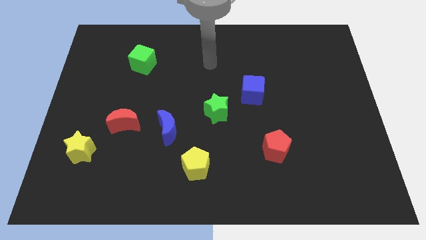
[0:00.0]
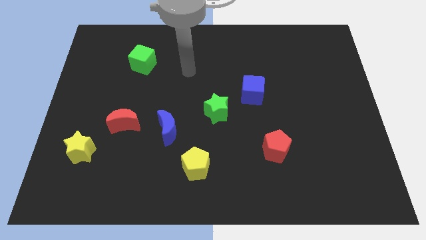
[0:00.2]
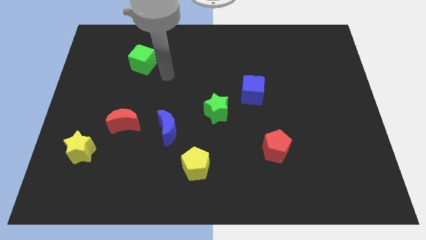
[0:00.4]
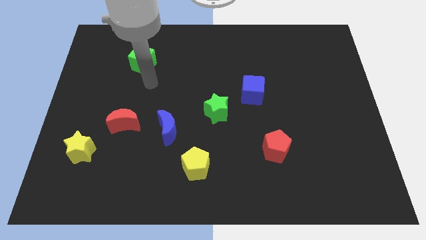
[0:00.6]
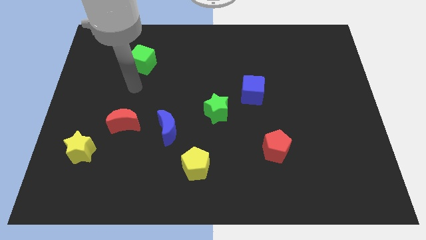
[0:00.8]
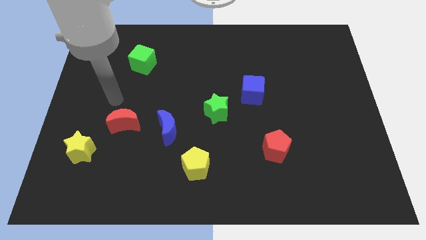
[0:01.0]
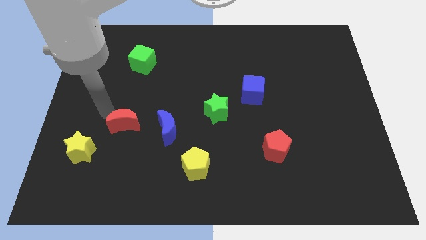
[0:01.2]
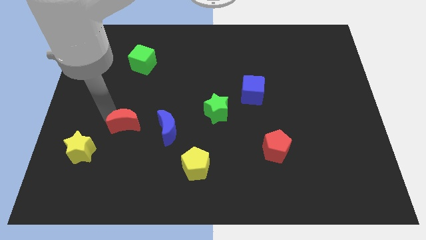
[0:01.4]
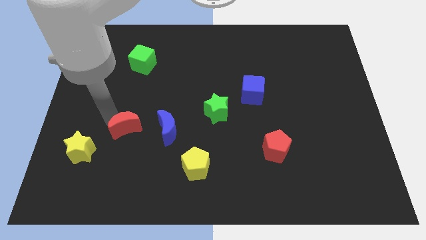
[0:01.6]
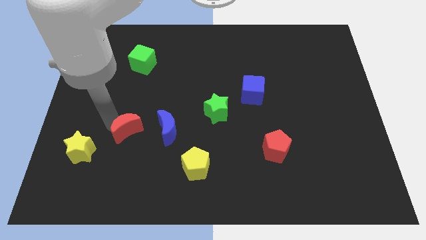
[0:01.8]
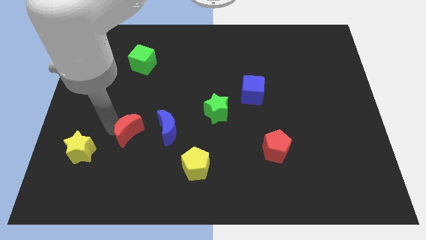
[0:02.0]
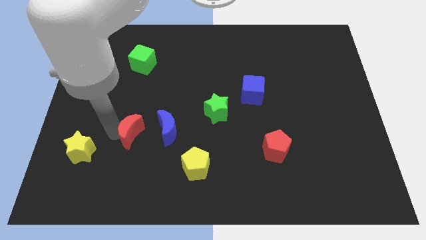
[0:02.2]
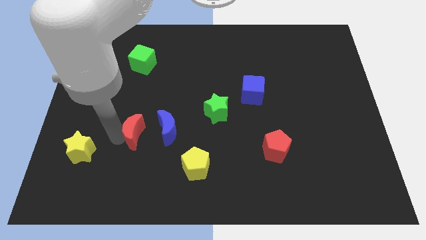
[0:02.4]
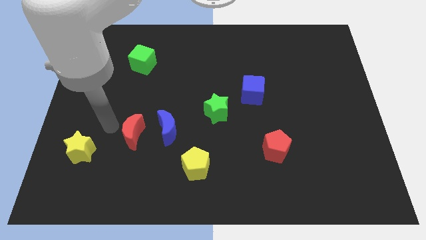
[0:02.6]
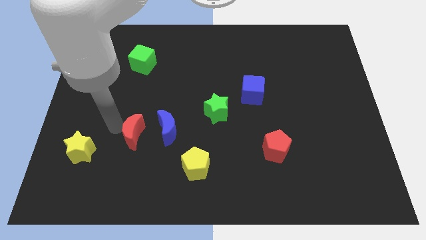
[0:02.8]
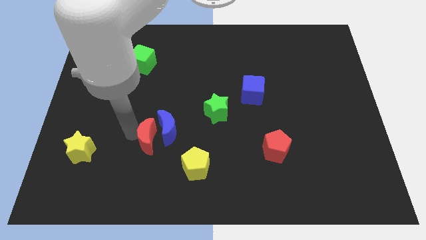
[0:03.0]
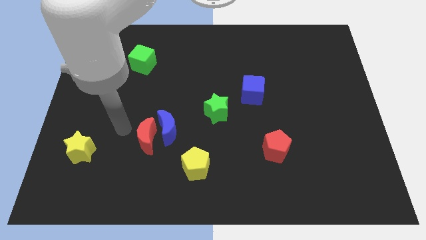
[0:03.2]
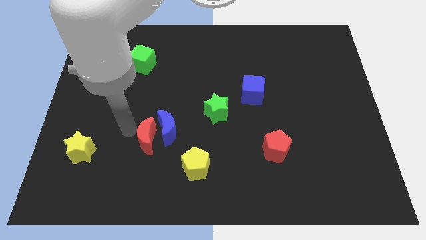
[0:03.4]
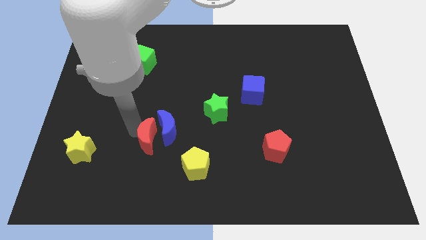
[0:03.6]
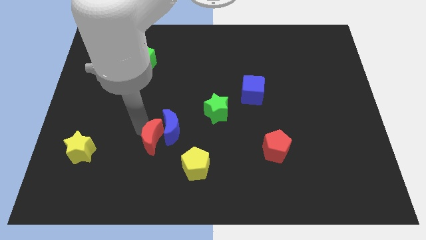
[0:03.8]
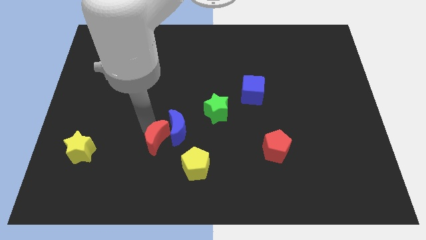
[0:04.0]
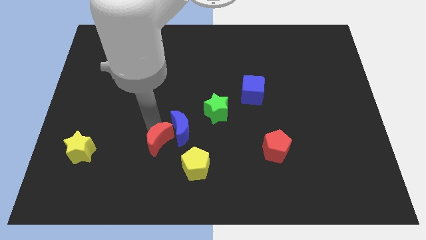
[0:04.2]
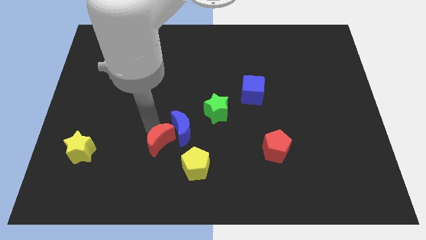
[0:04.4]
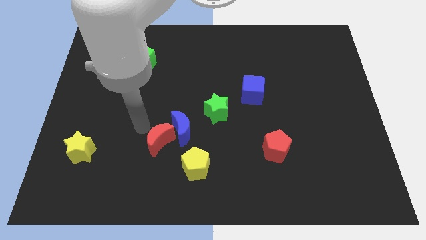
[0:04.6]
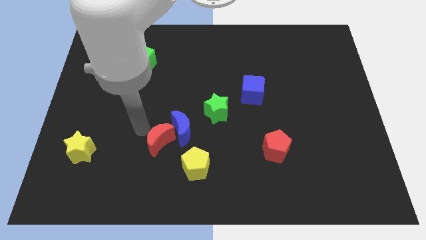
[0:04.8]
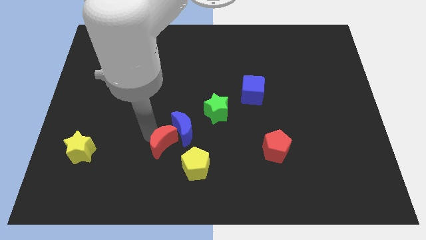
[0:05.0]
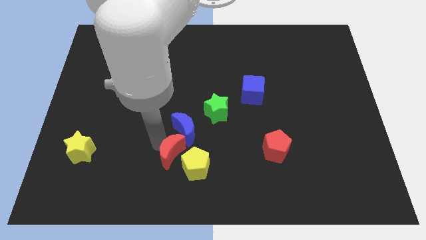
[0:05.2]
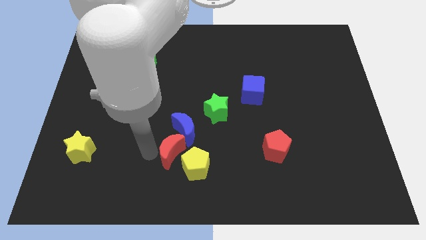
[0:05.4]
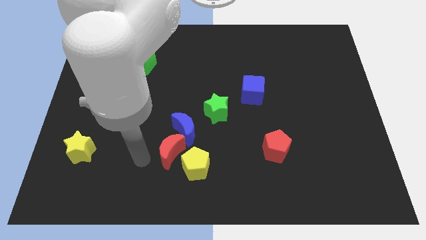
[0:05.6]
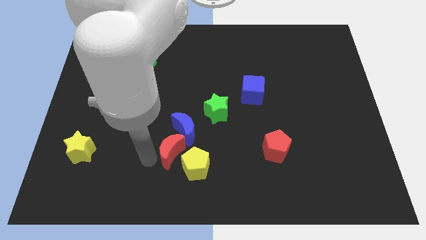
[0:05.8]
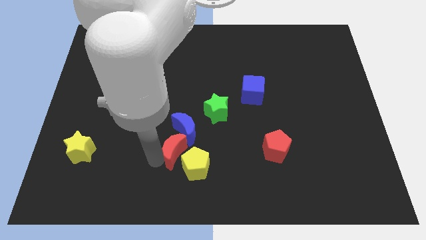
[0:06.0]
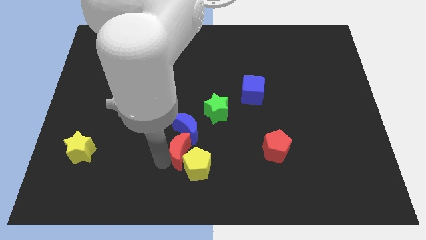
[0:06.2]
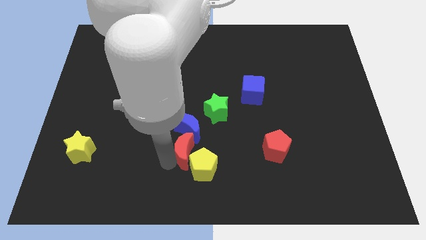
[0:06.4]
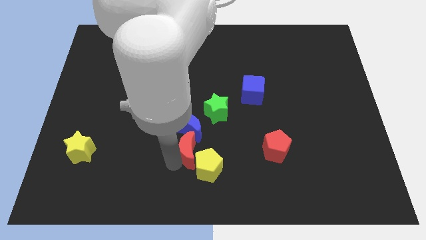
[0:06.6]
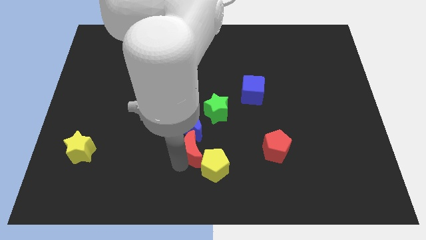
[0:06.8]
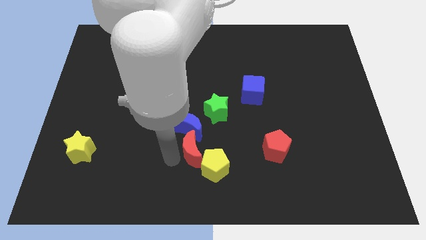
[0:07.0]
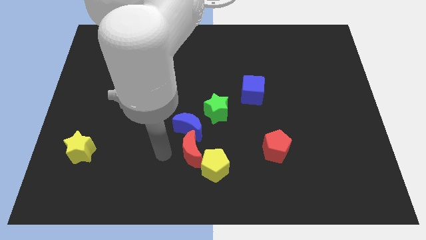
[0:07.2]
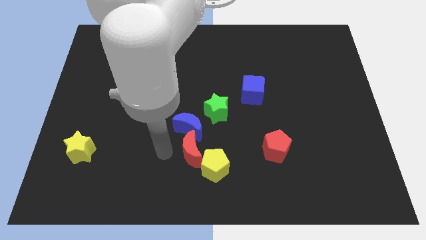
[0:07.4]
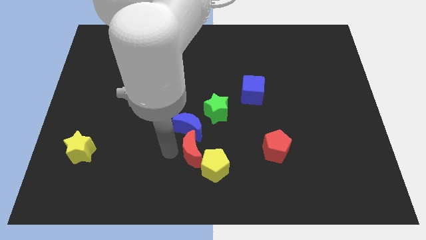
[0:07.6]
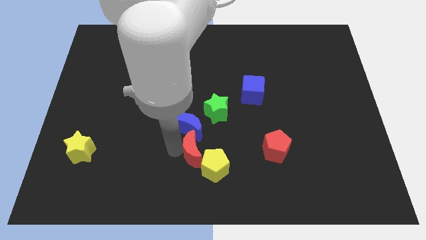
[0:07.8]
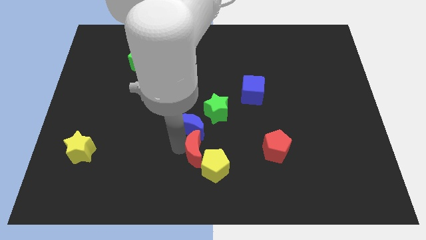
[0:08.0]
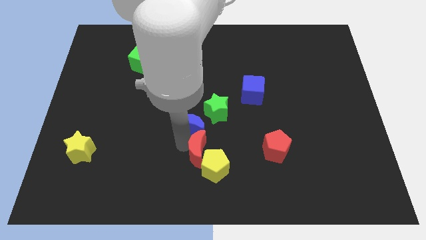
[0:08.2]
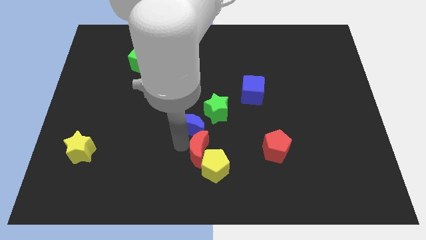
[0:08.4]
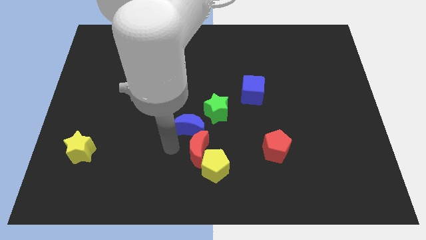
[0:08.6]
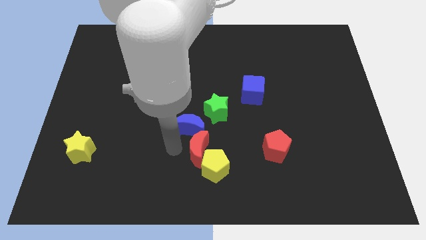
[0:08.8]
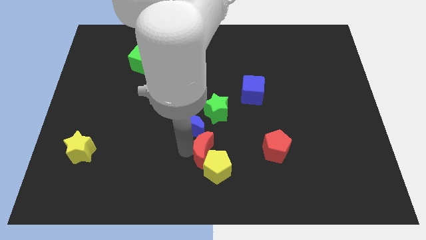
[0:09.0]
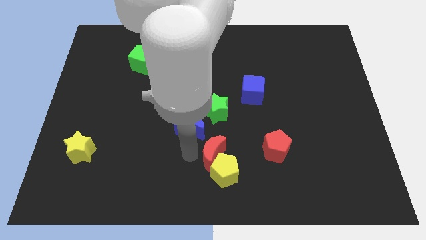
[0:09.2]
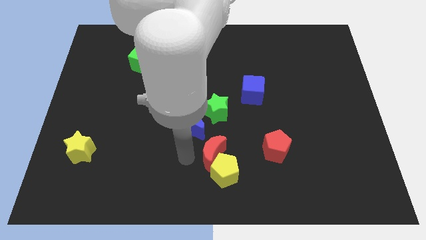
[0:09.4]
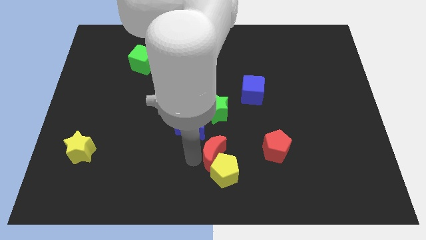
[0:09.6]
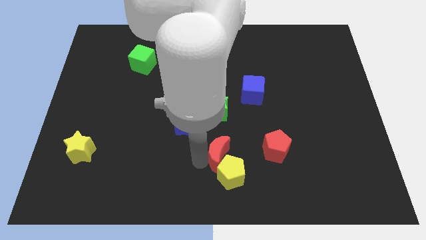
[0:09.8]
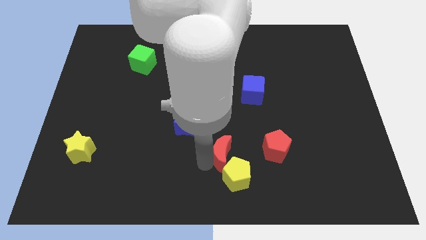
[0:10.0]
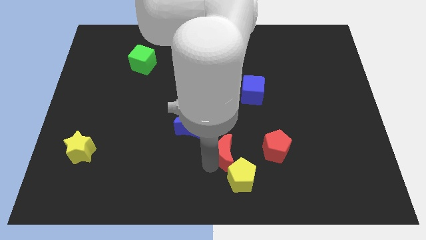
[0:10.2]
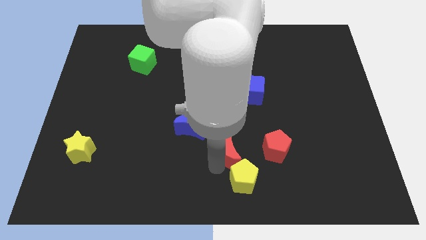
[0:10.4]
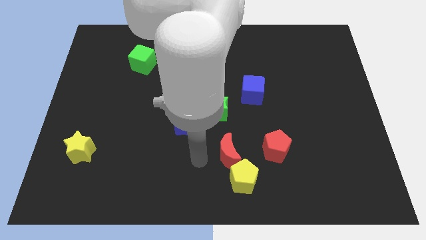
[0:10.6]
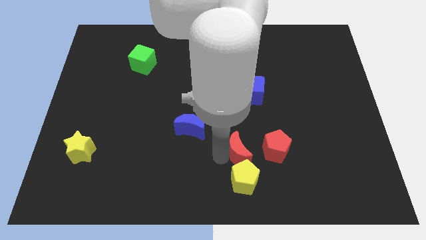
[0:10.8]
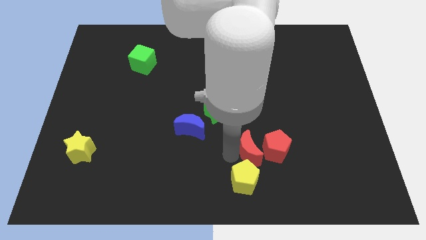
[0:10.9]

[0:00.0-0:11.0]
slide the red moon to the red pentagon

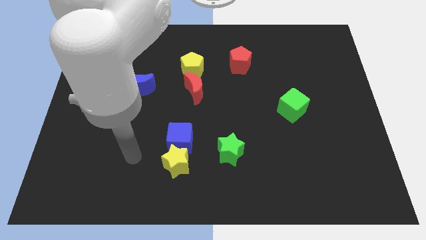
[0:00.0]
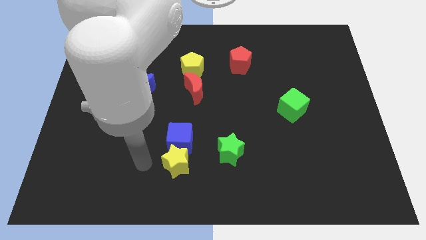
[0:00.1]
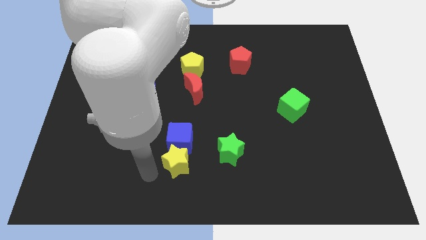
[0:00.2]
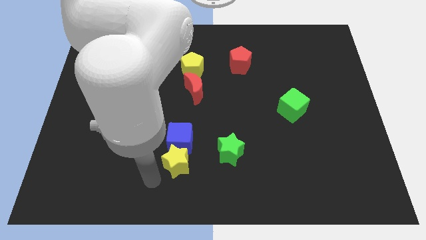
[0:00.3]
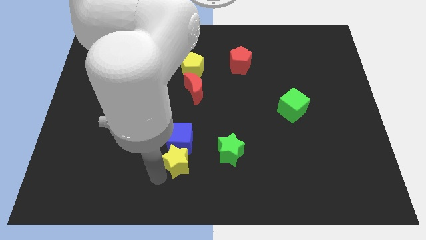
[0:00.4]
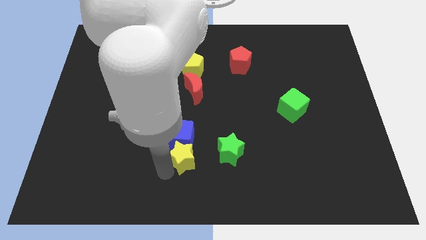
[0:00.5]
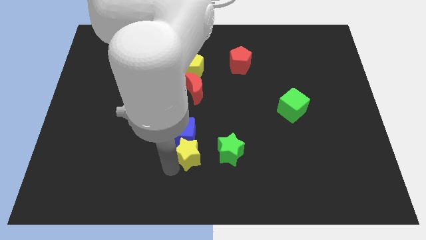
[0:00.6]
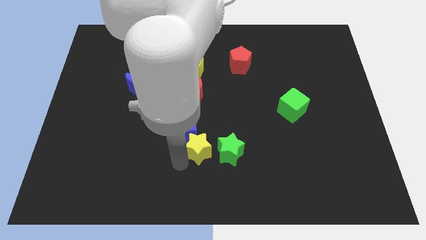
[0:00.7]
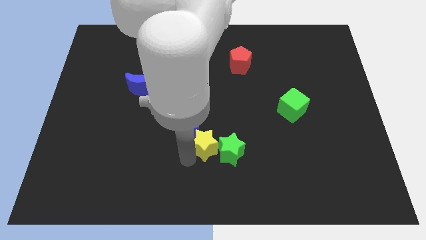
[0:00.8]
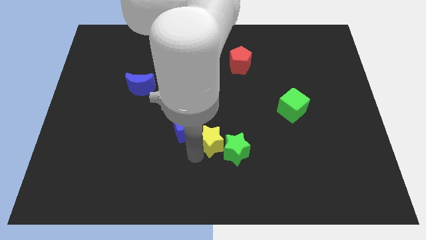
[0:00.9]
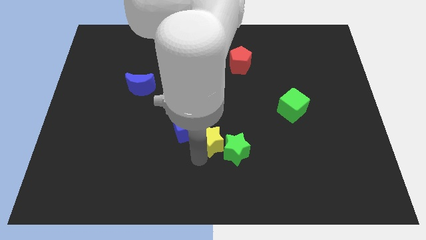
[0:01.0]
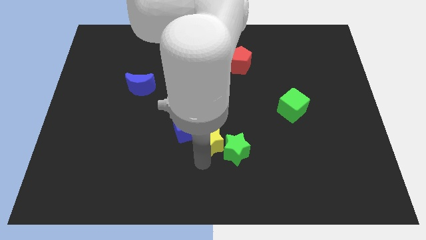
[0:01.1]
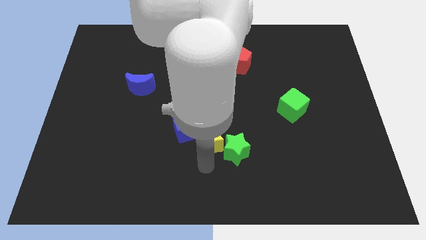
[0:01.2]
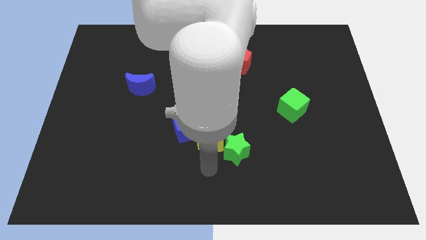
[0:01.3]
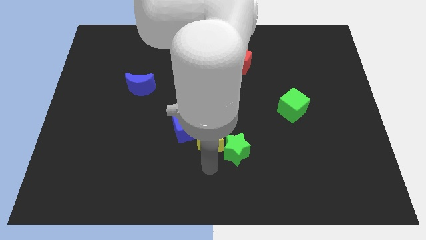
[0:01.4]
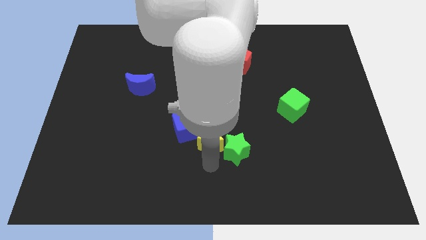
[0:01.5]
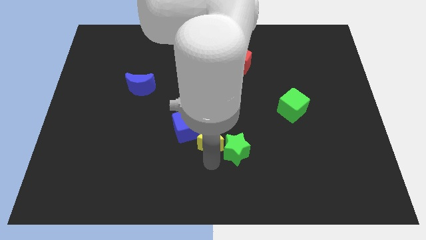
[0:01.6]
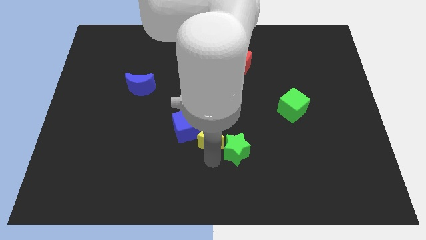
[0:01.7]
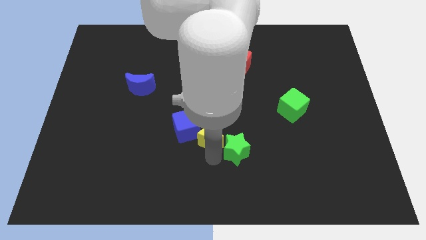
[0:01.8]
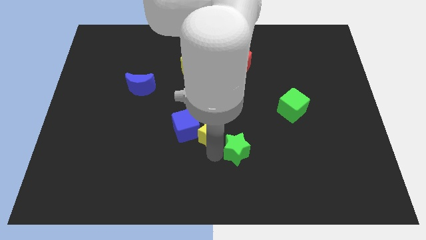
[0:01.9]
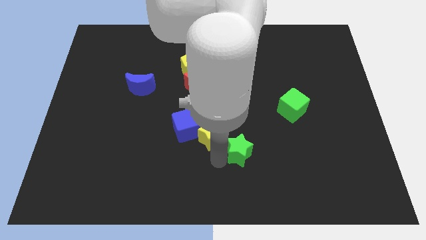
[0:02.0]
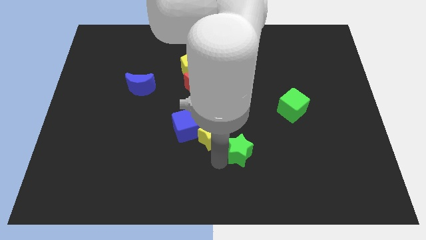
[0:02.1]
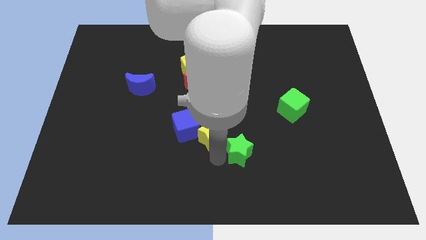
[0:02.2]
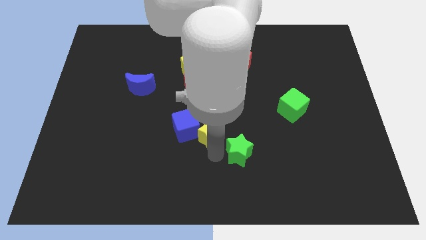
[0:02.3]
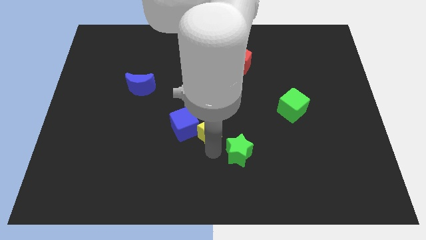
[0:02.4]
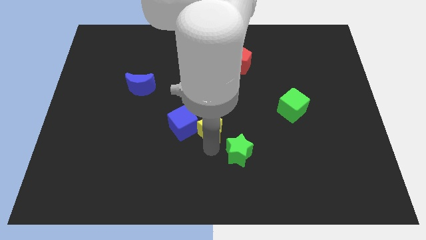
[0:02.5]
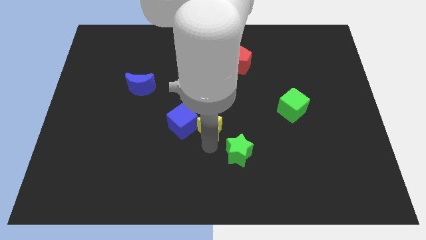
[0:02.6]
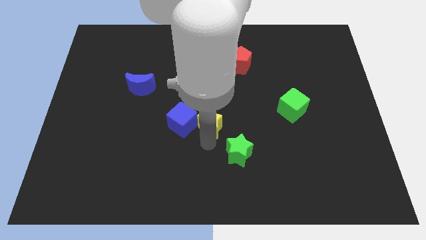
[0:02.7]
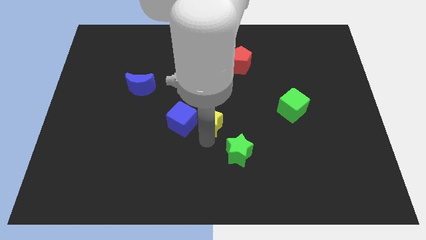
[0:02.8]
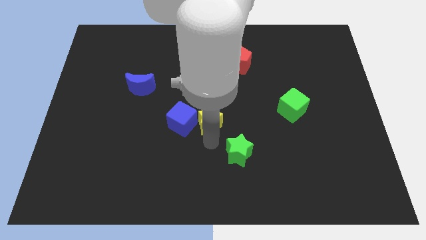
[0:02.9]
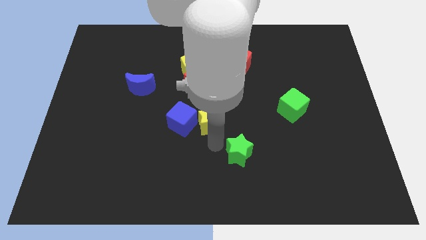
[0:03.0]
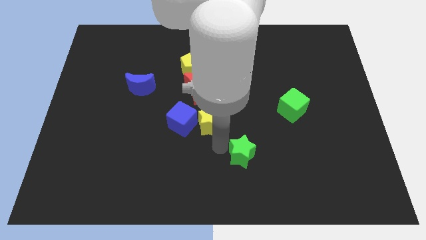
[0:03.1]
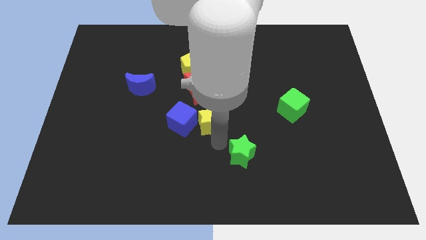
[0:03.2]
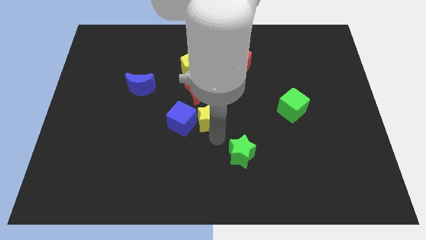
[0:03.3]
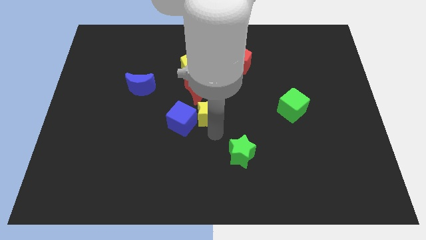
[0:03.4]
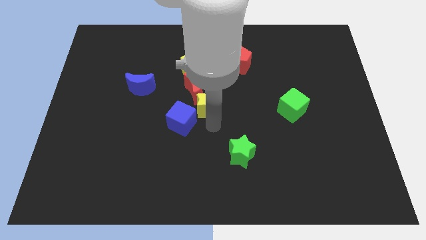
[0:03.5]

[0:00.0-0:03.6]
move the yellow star towards the red moon
